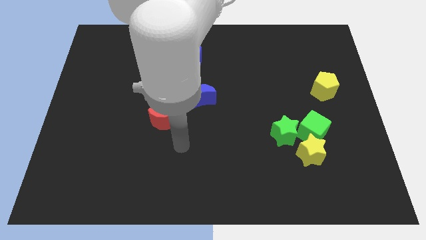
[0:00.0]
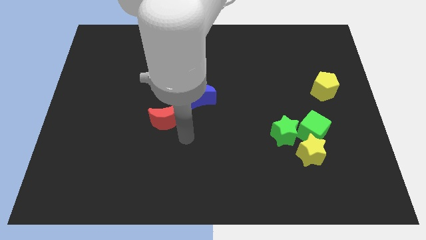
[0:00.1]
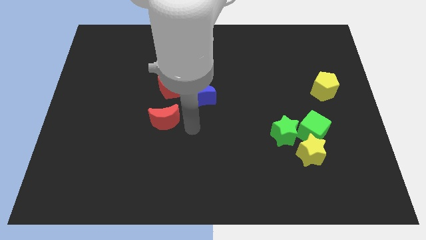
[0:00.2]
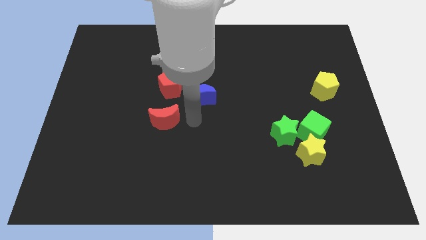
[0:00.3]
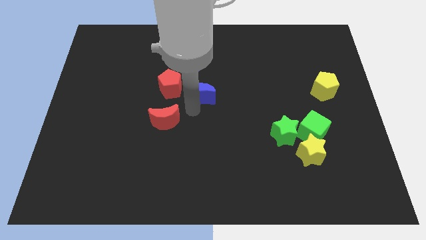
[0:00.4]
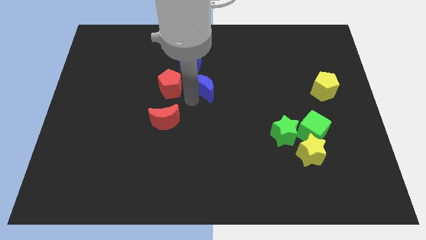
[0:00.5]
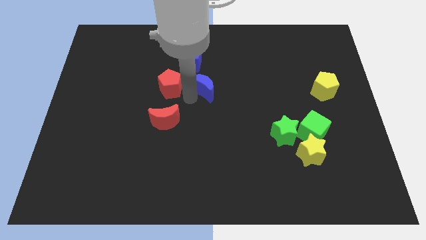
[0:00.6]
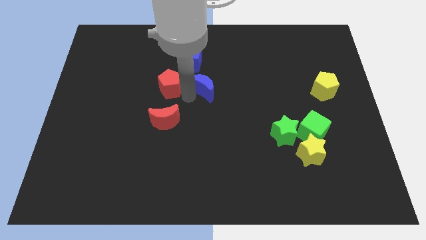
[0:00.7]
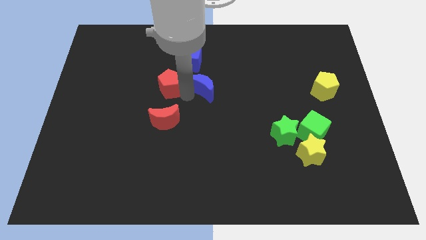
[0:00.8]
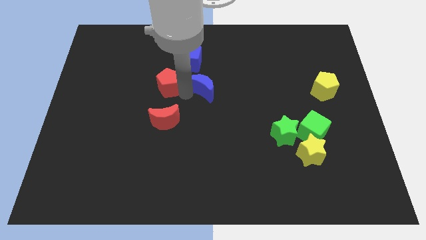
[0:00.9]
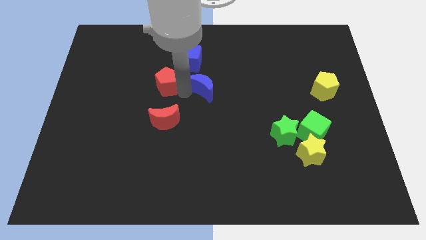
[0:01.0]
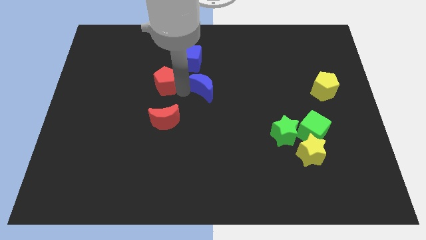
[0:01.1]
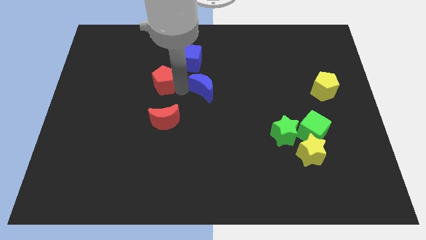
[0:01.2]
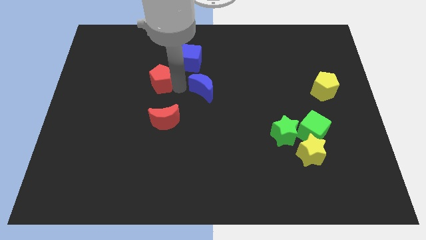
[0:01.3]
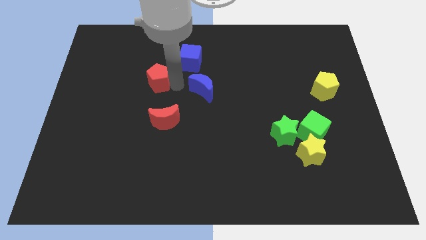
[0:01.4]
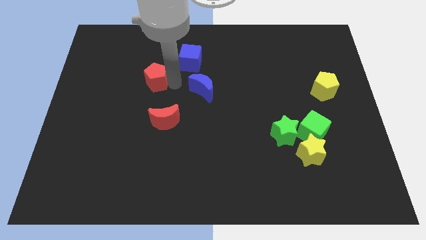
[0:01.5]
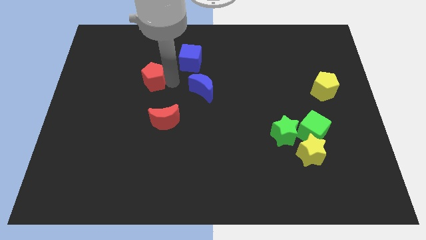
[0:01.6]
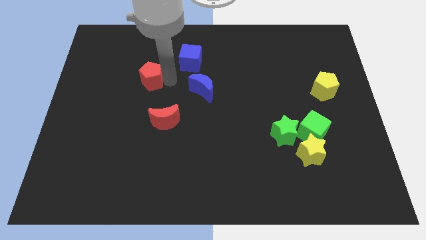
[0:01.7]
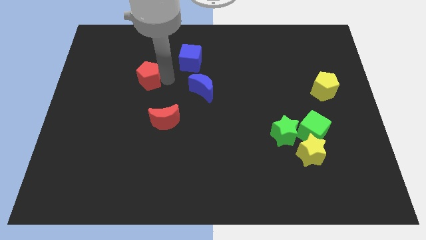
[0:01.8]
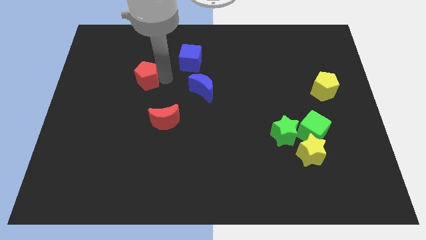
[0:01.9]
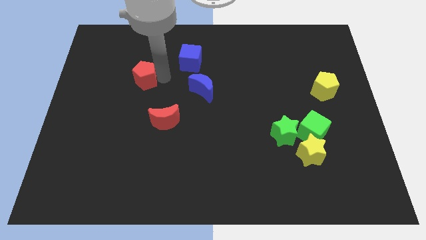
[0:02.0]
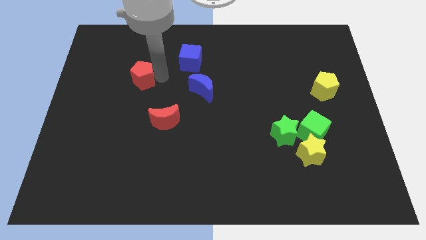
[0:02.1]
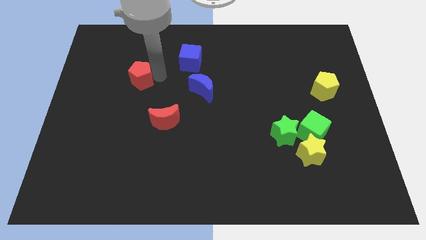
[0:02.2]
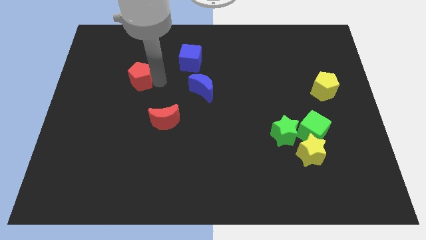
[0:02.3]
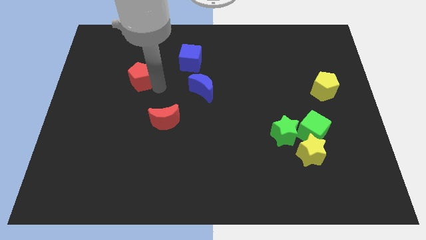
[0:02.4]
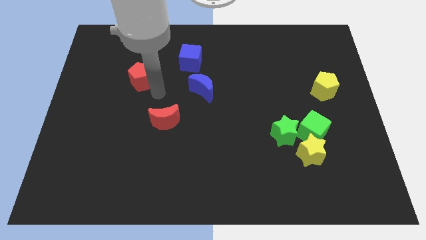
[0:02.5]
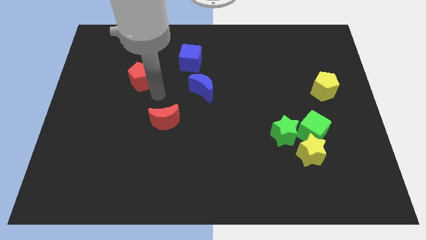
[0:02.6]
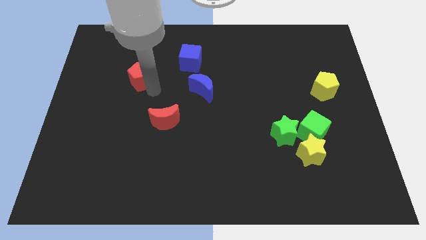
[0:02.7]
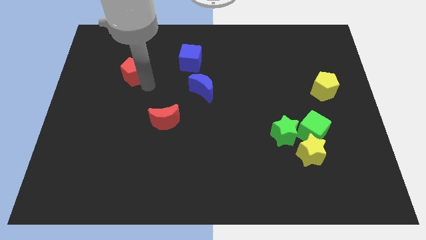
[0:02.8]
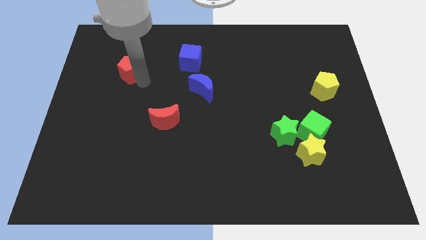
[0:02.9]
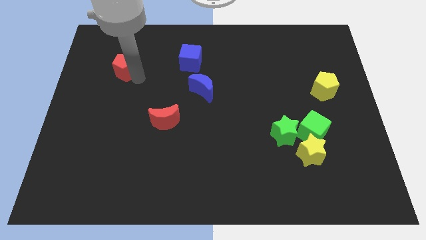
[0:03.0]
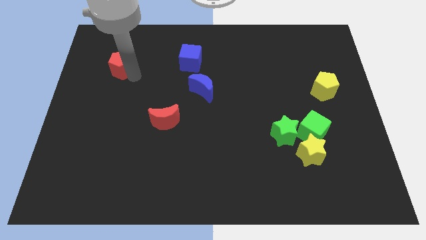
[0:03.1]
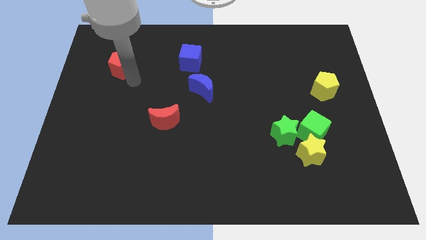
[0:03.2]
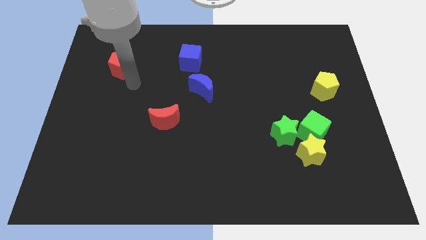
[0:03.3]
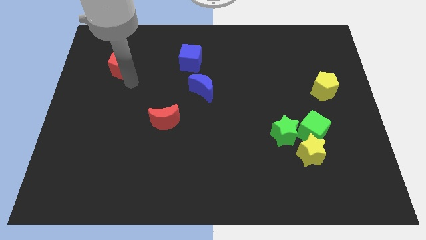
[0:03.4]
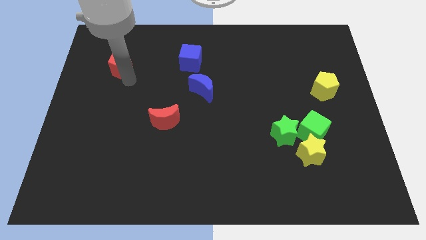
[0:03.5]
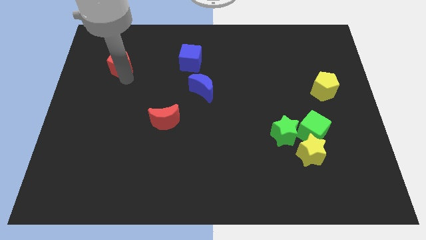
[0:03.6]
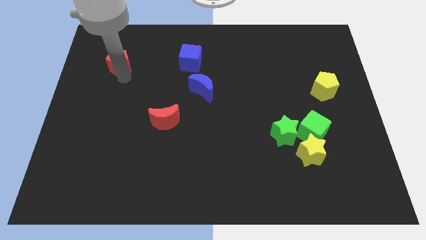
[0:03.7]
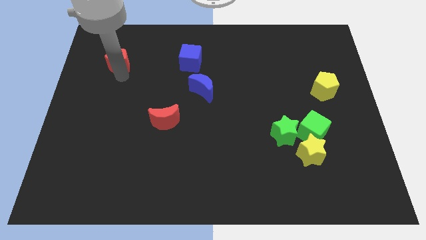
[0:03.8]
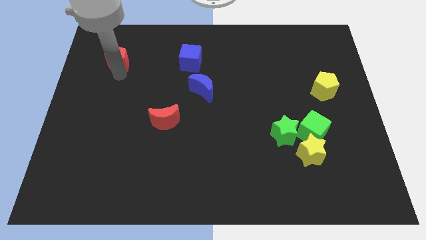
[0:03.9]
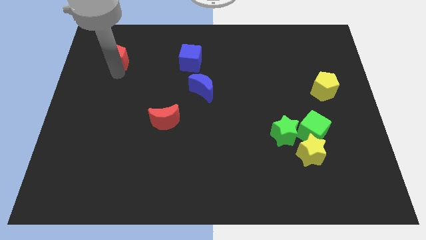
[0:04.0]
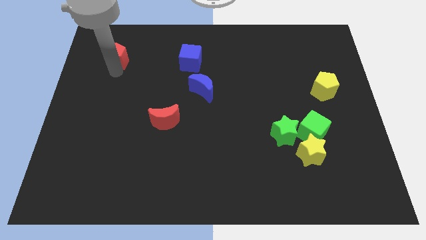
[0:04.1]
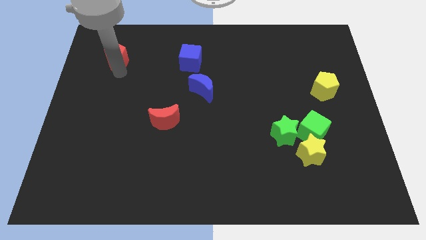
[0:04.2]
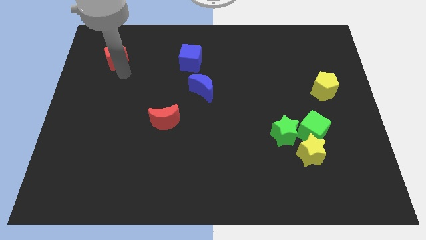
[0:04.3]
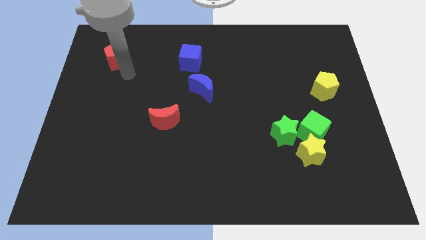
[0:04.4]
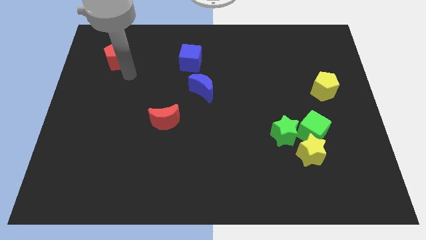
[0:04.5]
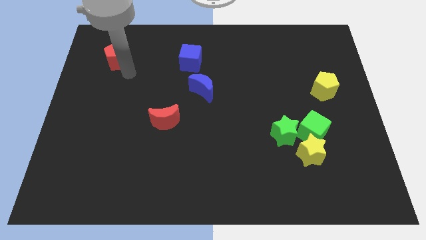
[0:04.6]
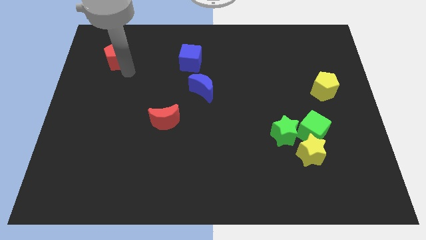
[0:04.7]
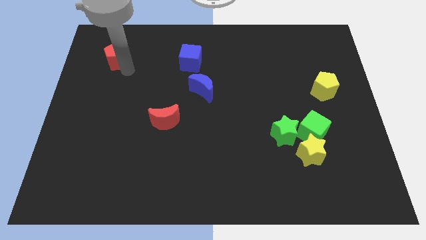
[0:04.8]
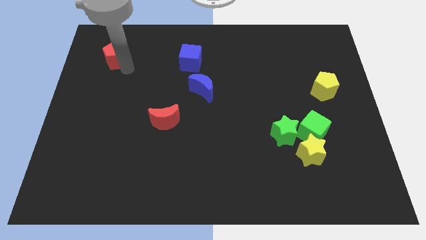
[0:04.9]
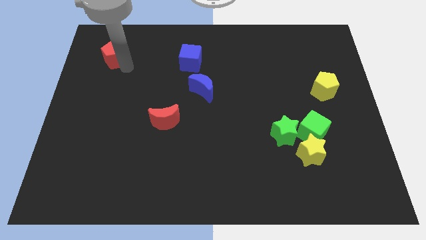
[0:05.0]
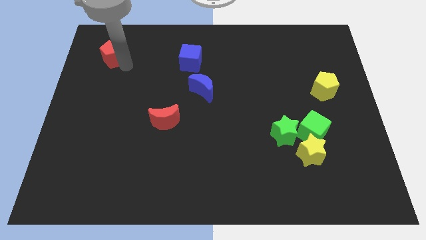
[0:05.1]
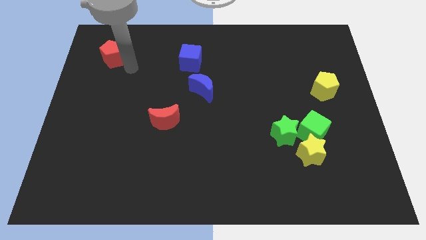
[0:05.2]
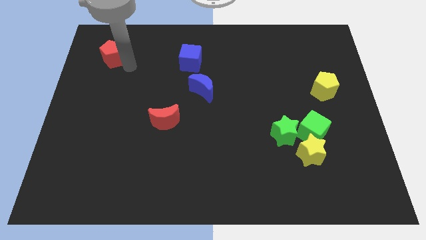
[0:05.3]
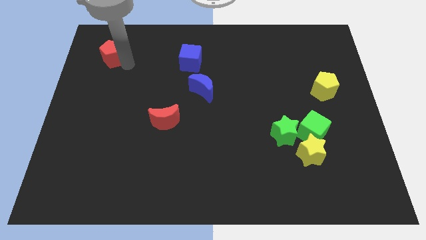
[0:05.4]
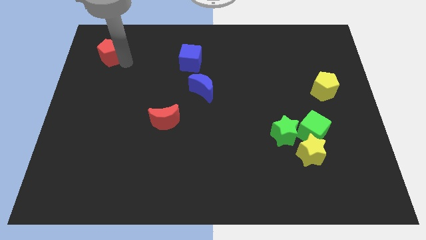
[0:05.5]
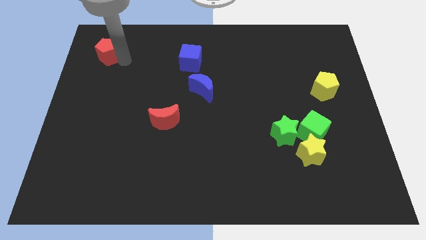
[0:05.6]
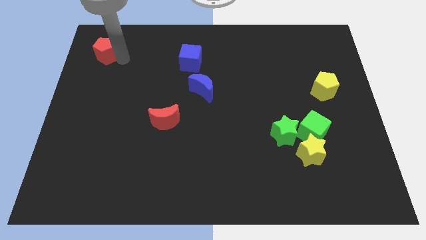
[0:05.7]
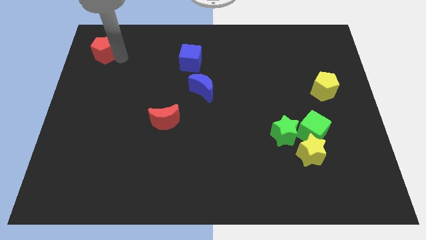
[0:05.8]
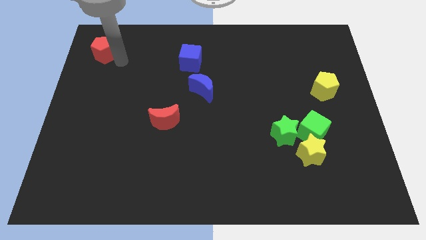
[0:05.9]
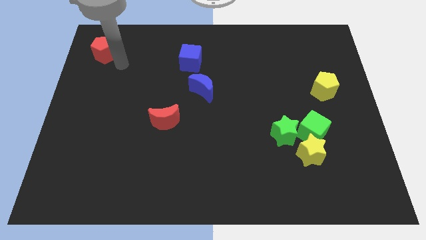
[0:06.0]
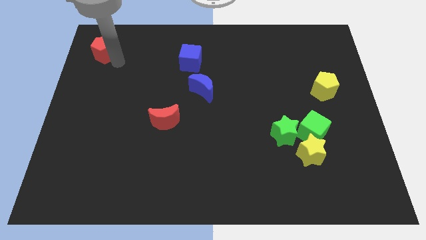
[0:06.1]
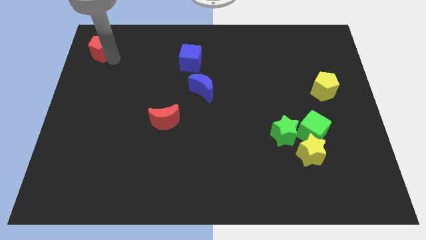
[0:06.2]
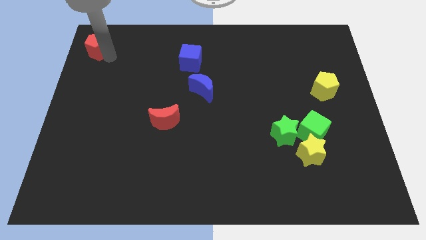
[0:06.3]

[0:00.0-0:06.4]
push the red pentagon to the upper left corner
